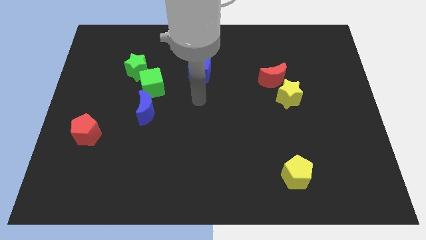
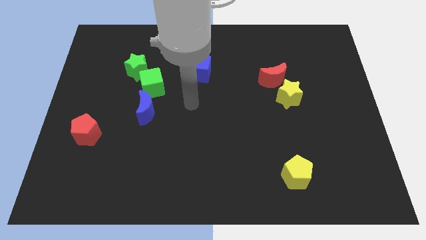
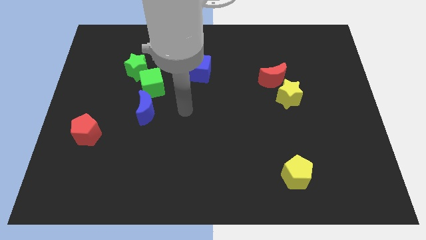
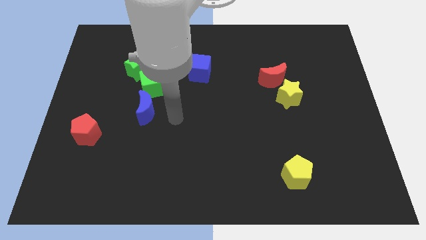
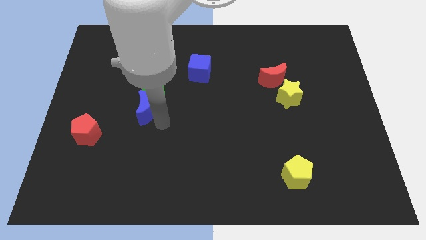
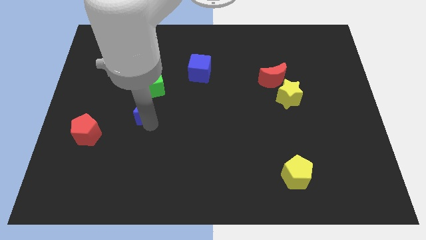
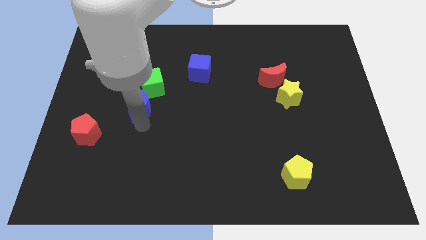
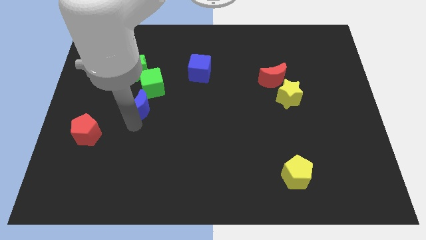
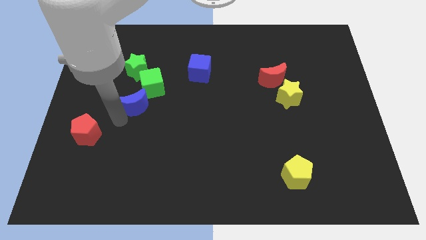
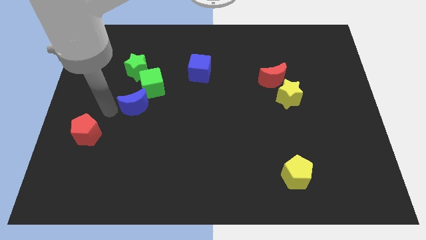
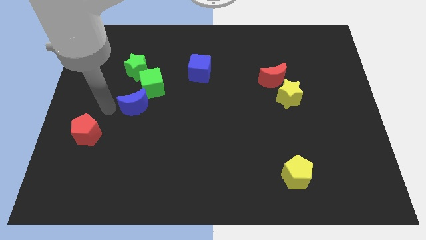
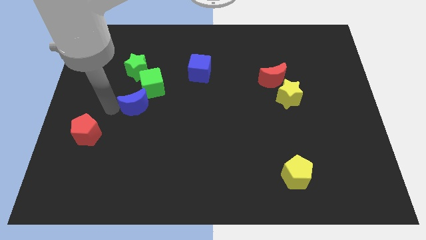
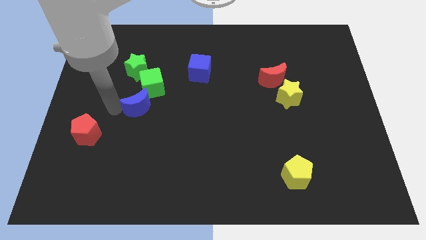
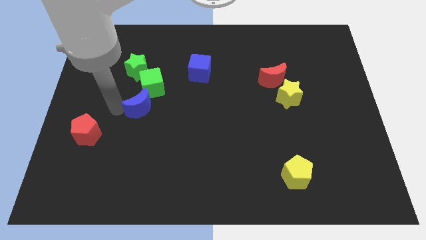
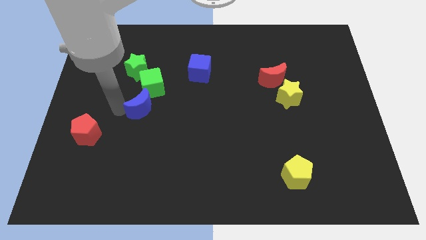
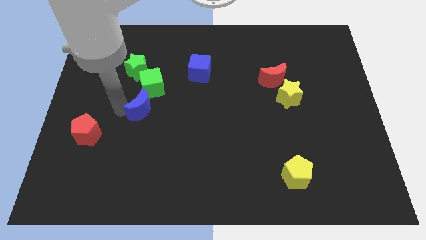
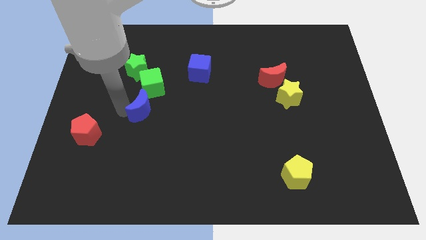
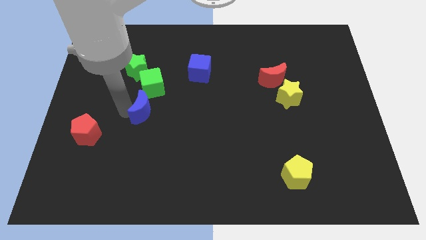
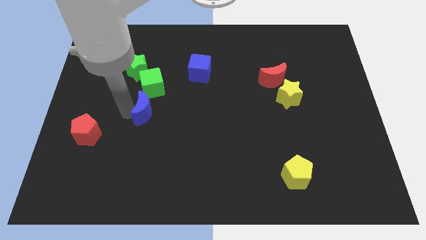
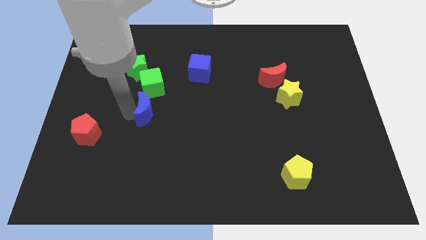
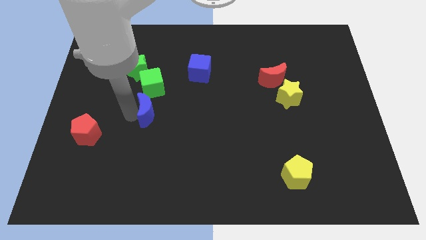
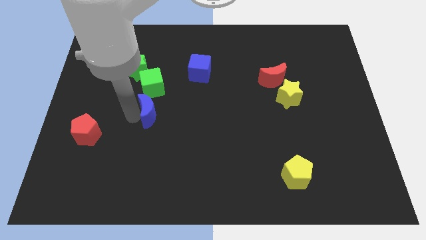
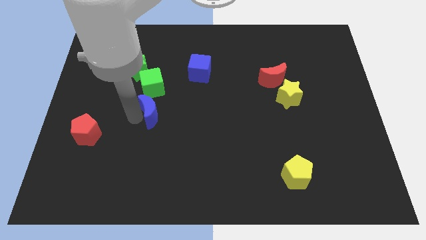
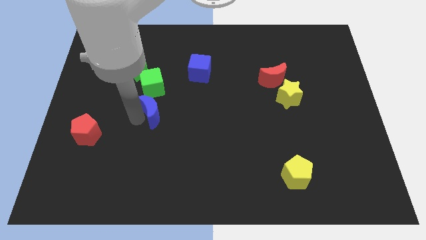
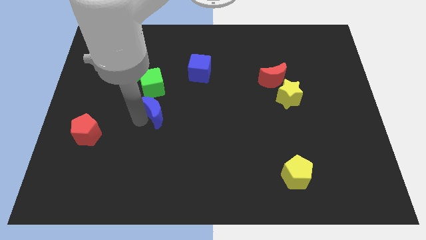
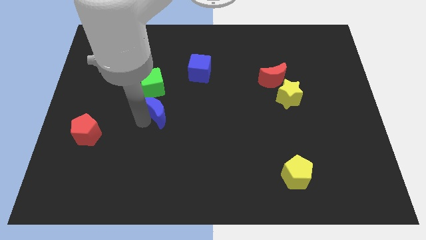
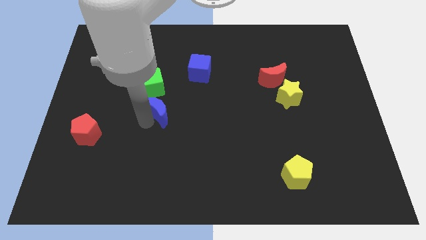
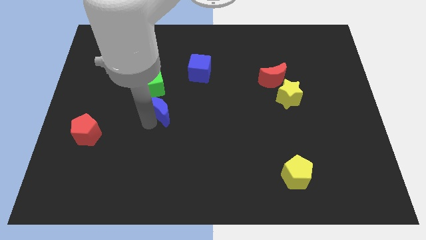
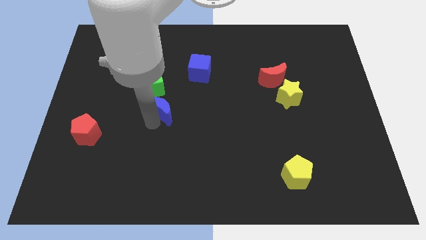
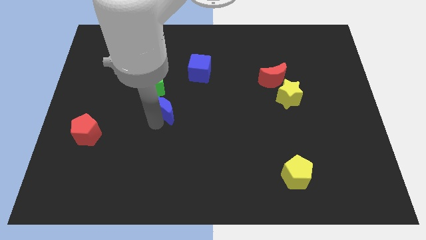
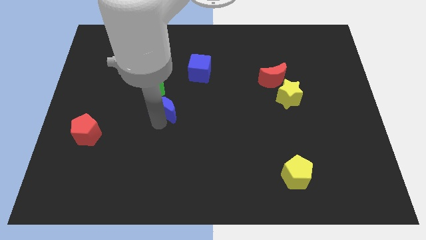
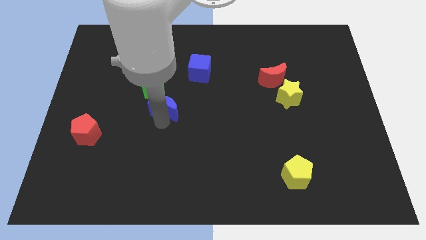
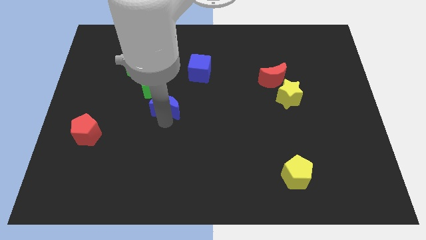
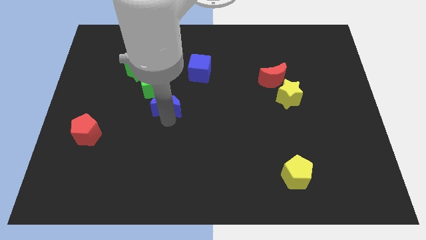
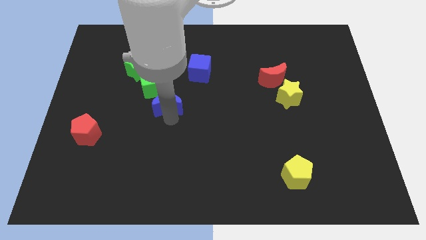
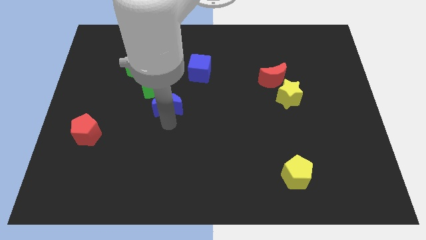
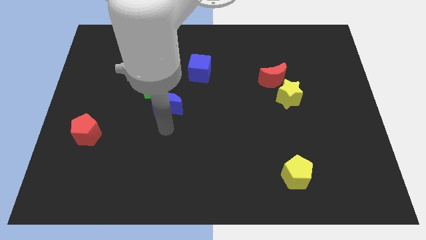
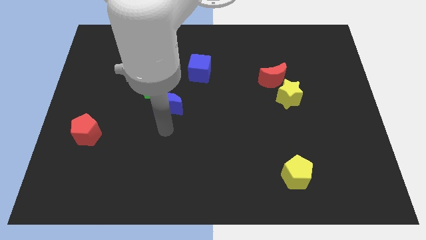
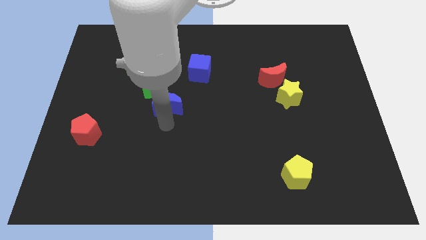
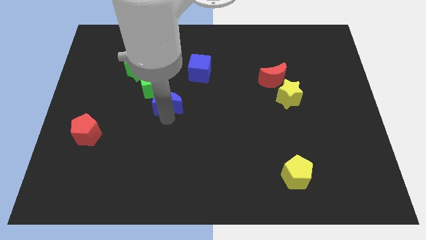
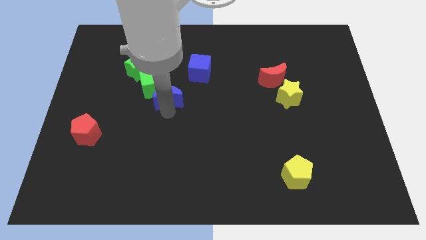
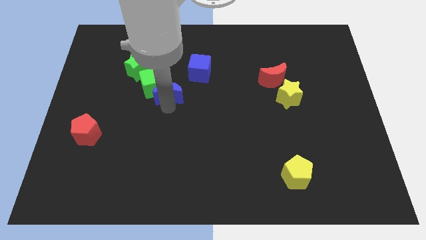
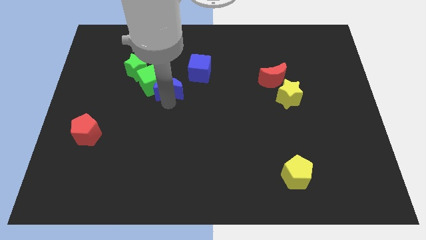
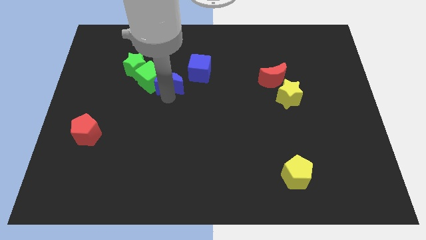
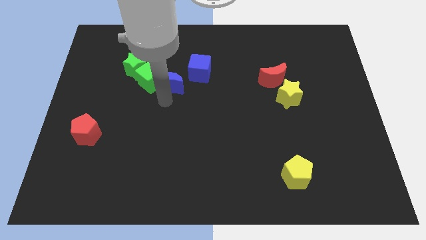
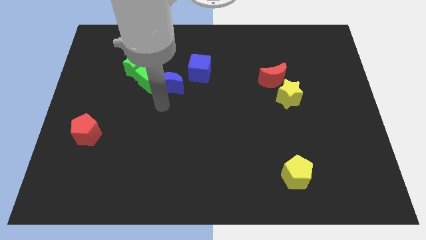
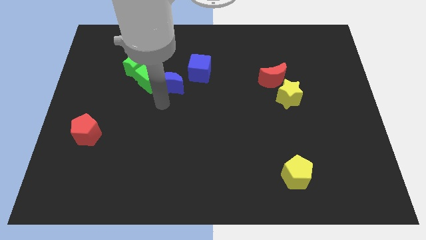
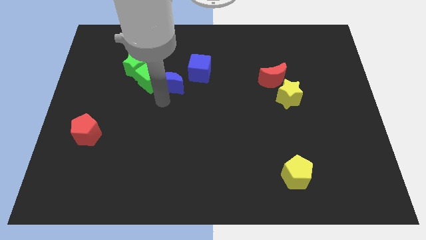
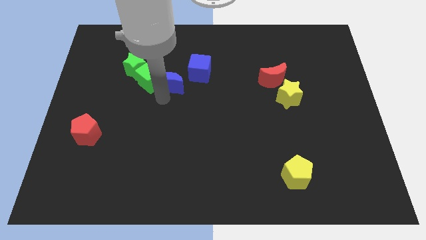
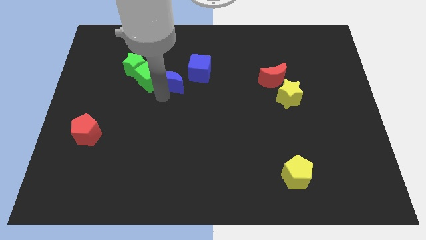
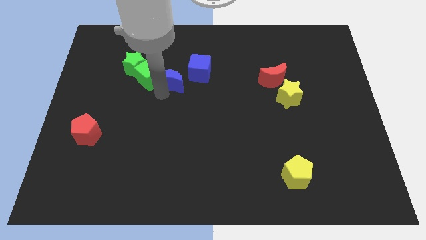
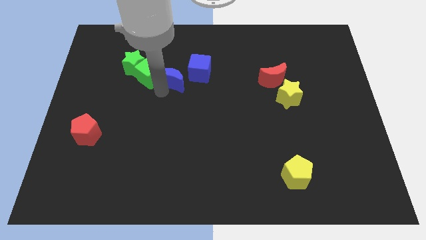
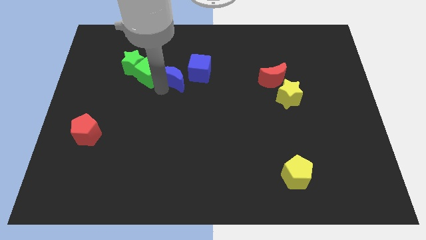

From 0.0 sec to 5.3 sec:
push the blue moon right of the green star
